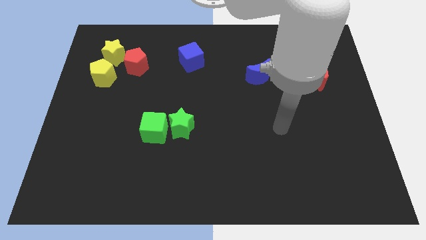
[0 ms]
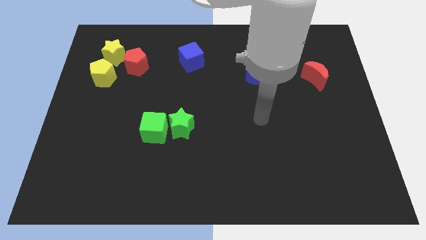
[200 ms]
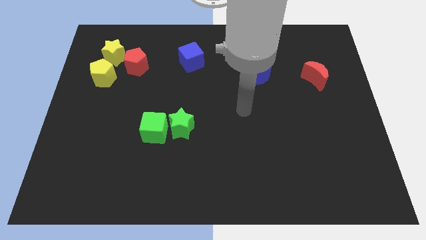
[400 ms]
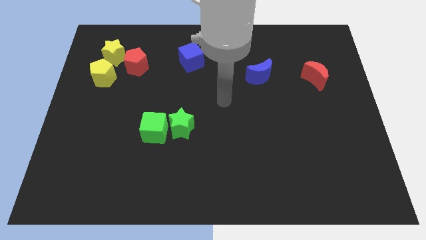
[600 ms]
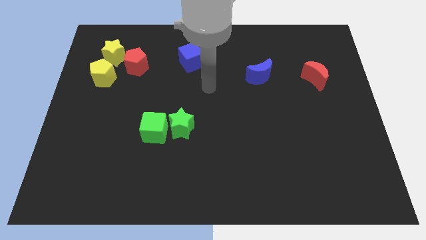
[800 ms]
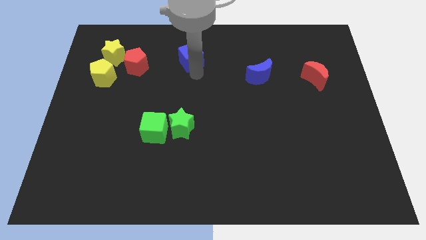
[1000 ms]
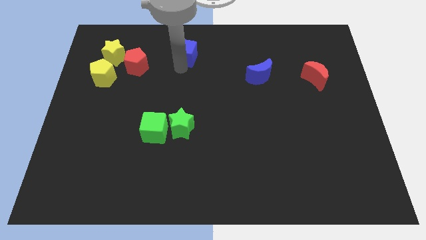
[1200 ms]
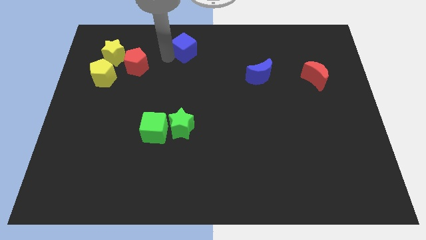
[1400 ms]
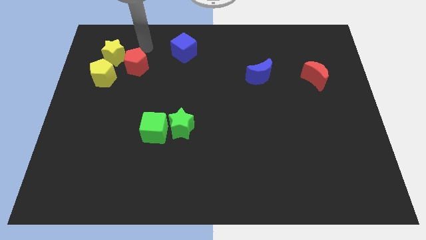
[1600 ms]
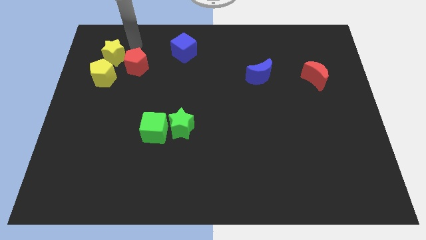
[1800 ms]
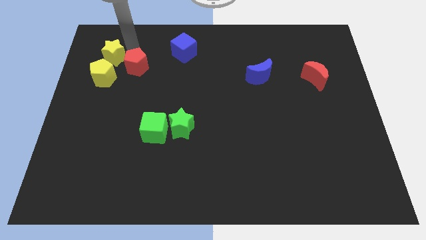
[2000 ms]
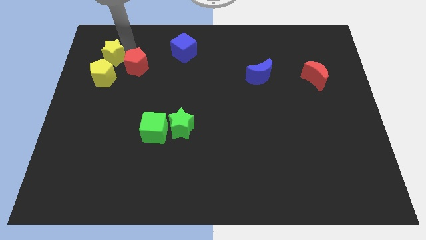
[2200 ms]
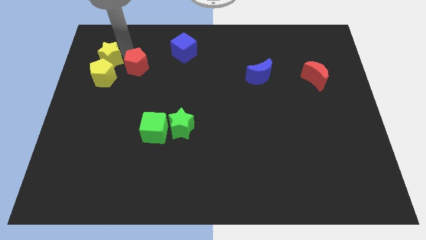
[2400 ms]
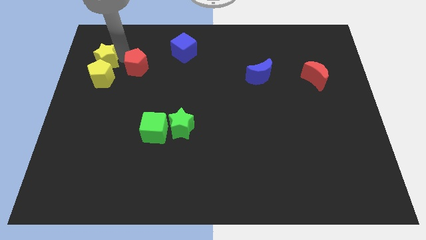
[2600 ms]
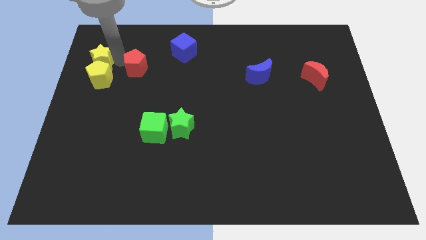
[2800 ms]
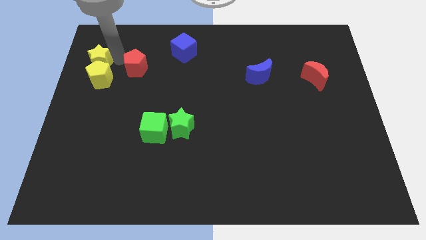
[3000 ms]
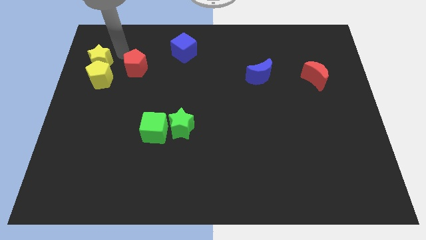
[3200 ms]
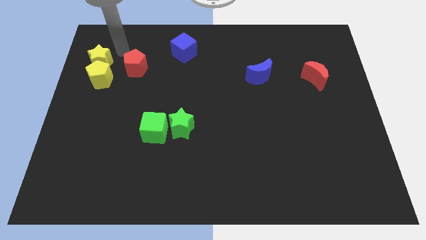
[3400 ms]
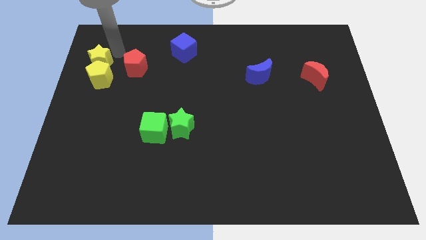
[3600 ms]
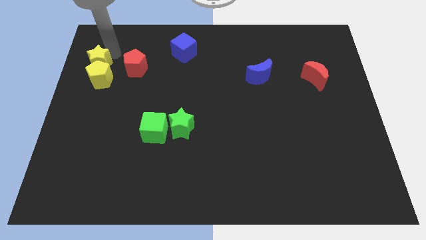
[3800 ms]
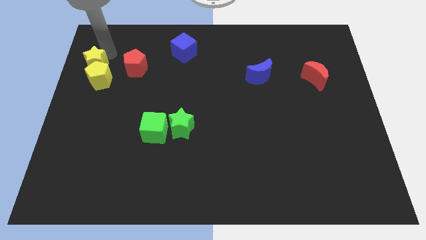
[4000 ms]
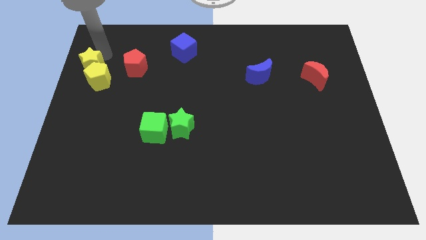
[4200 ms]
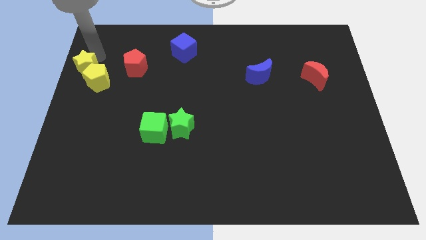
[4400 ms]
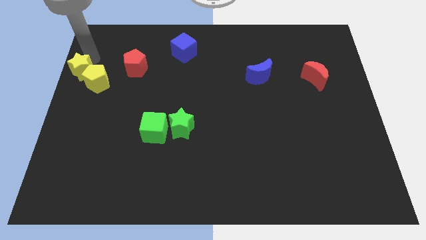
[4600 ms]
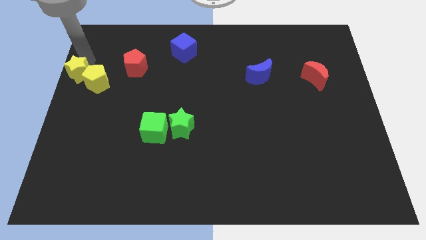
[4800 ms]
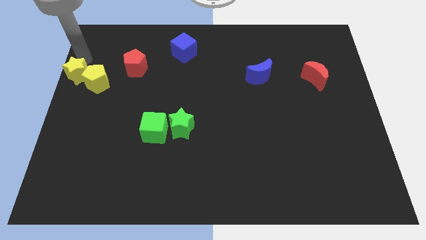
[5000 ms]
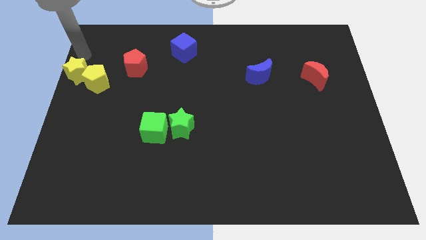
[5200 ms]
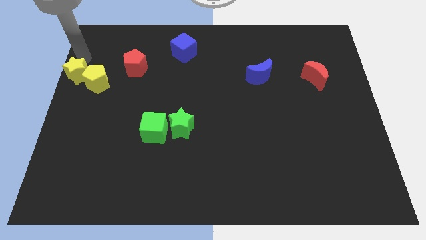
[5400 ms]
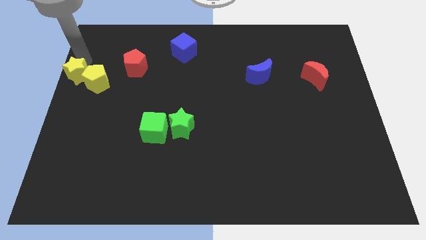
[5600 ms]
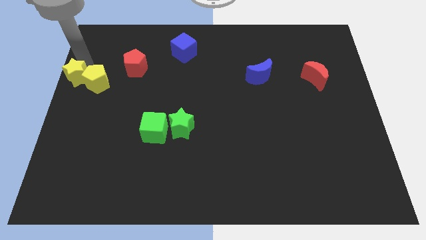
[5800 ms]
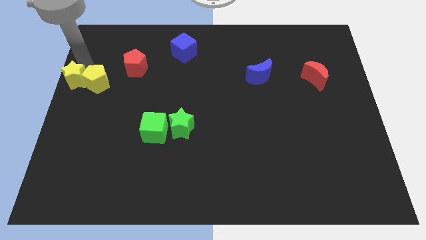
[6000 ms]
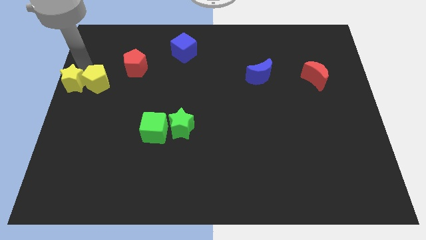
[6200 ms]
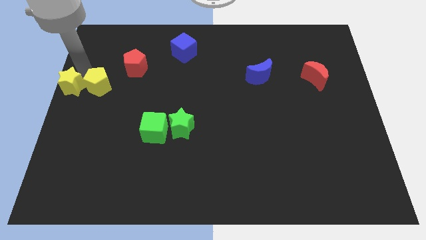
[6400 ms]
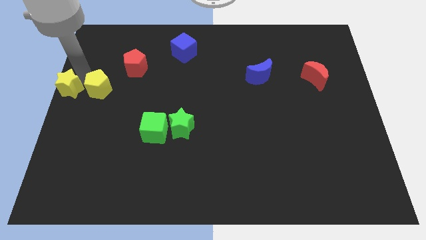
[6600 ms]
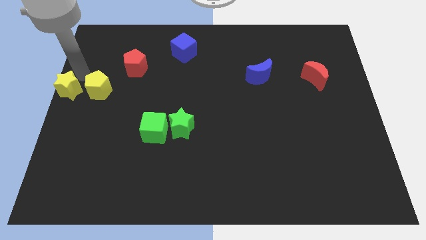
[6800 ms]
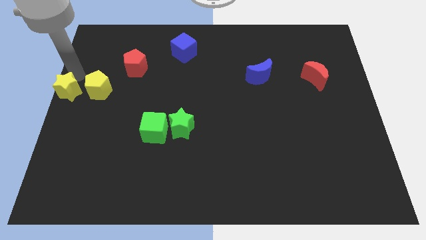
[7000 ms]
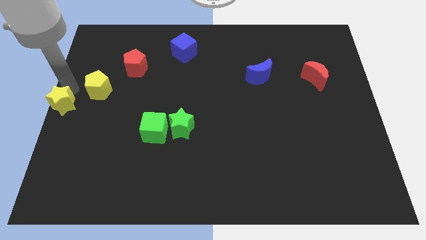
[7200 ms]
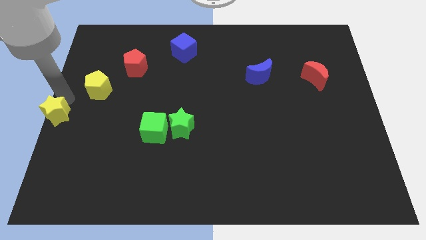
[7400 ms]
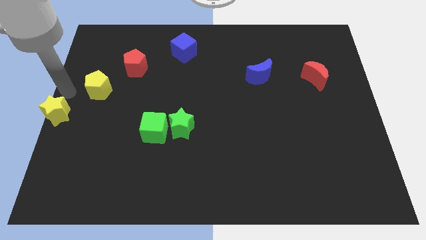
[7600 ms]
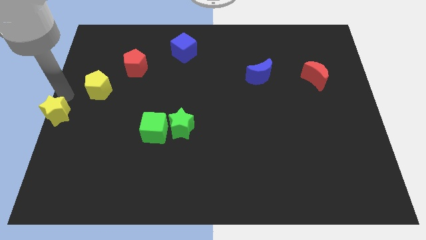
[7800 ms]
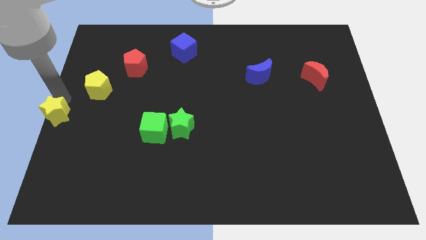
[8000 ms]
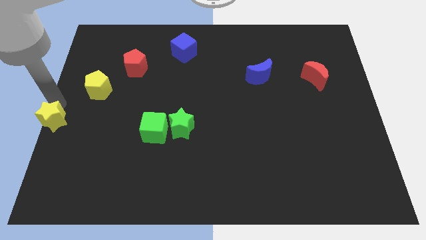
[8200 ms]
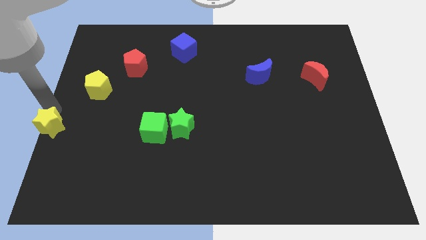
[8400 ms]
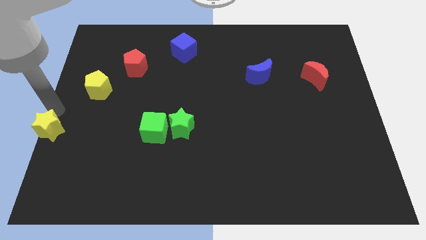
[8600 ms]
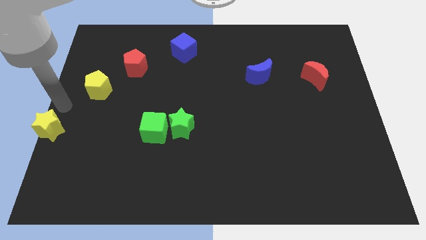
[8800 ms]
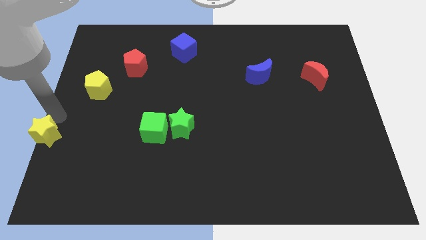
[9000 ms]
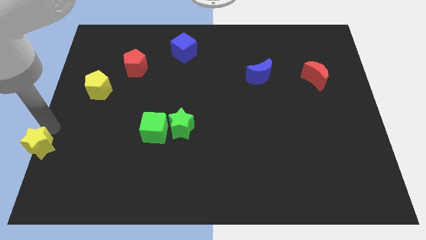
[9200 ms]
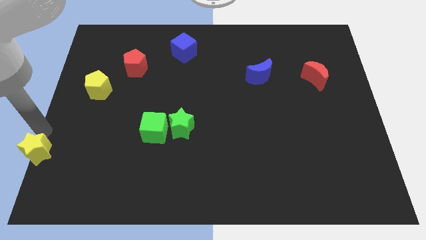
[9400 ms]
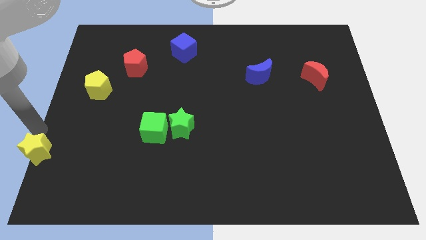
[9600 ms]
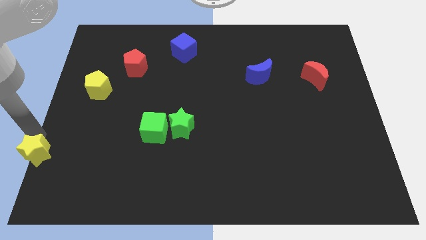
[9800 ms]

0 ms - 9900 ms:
put the yellow star to the bottom left corner

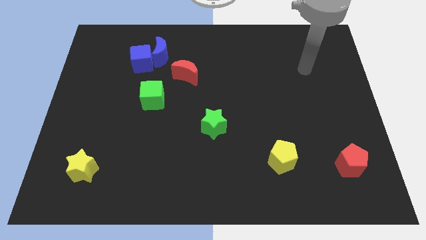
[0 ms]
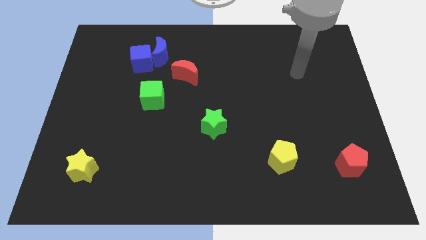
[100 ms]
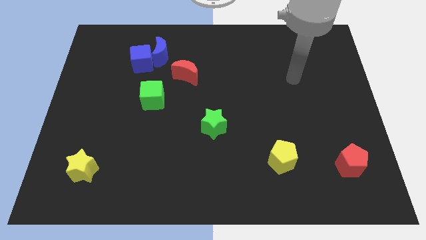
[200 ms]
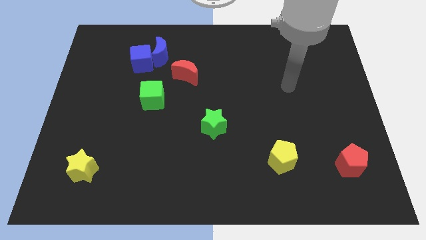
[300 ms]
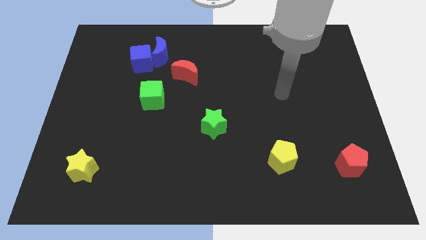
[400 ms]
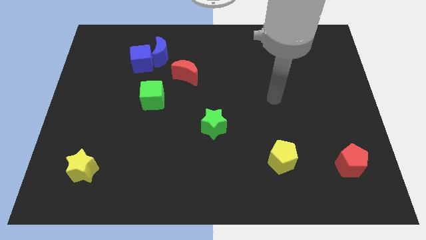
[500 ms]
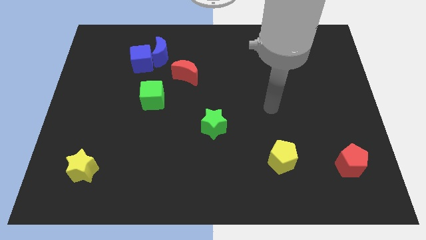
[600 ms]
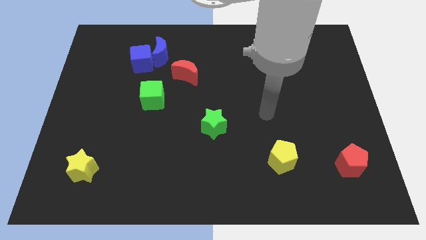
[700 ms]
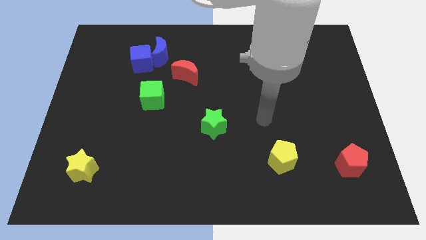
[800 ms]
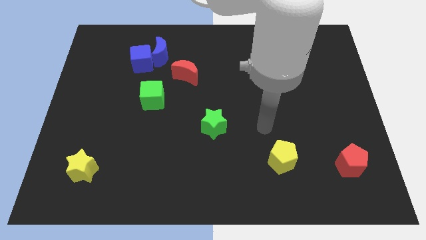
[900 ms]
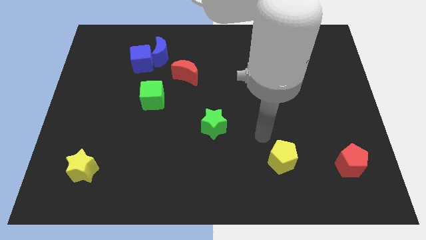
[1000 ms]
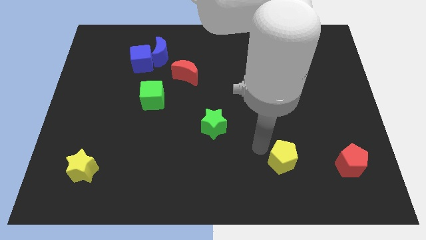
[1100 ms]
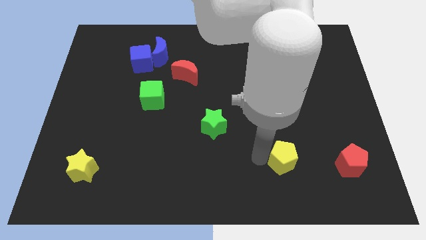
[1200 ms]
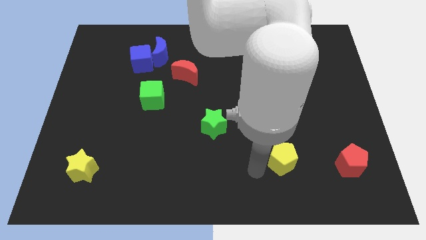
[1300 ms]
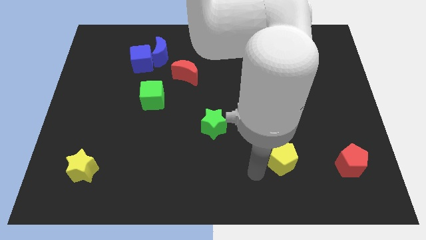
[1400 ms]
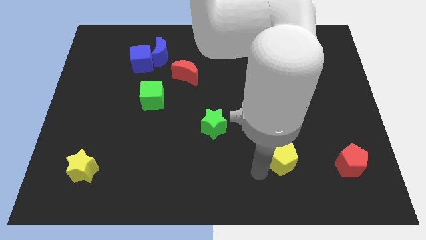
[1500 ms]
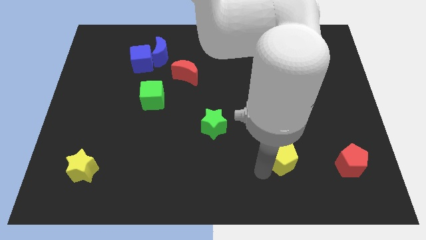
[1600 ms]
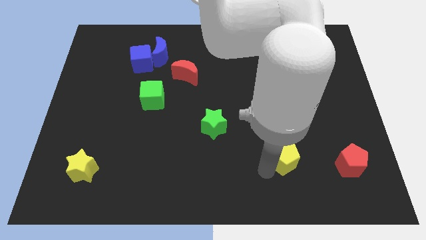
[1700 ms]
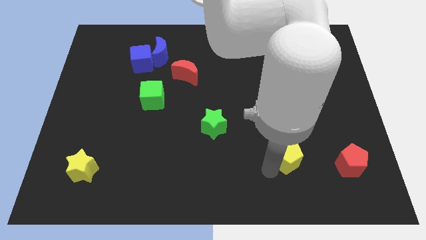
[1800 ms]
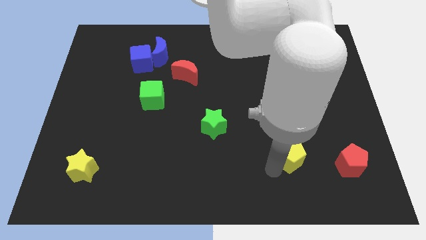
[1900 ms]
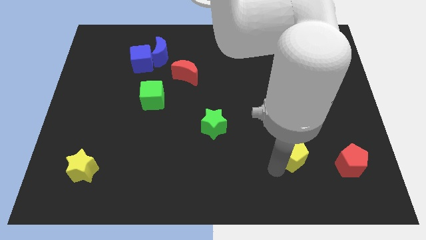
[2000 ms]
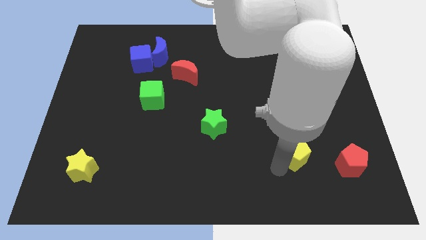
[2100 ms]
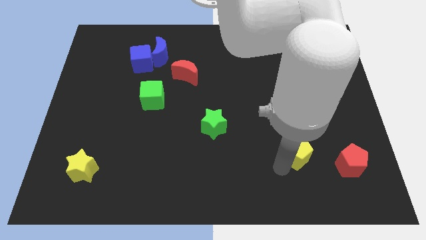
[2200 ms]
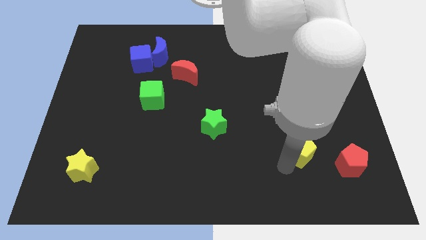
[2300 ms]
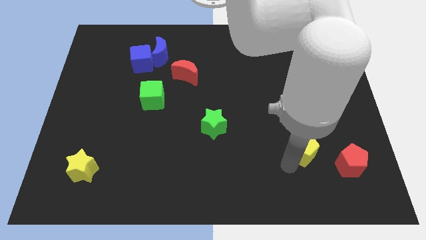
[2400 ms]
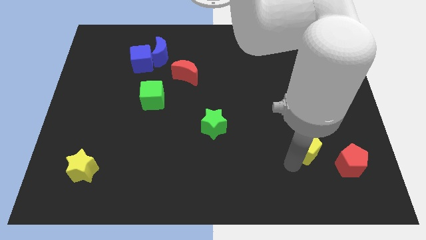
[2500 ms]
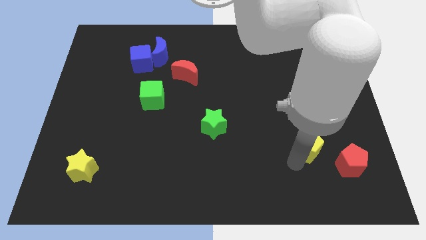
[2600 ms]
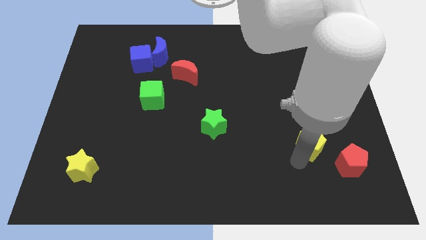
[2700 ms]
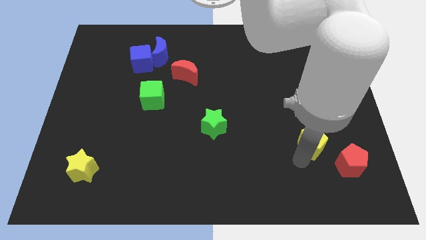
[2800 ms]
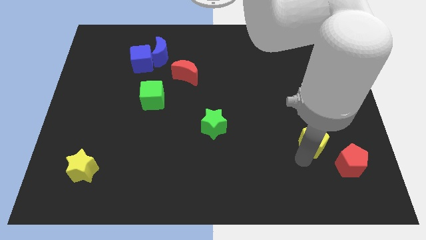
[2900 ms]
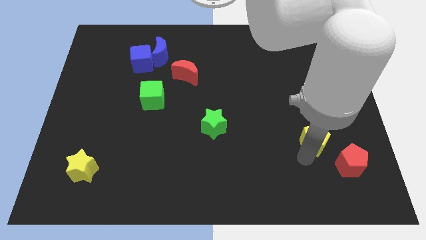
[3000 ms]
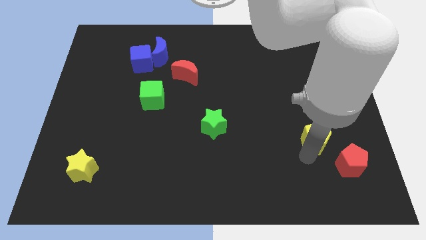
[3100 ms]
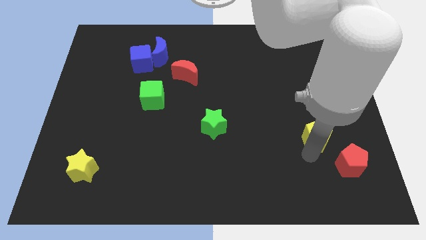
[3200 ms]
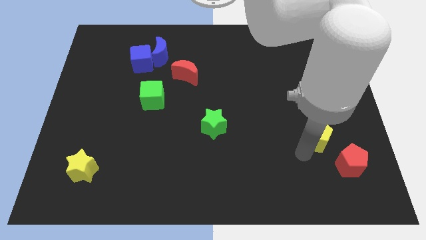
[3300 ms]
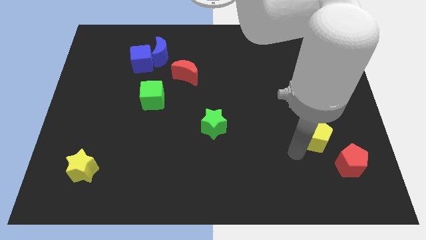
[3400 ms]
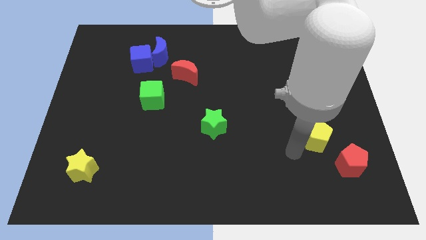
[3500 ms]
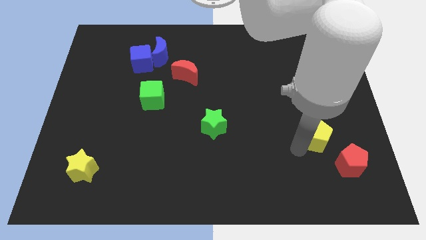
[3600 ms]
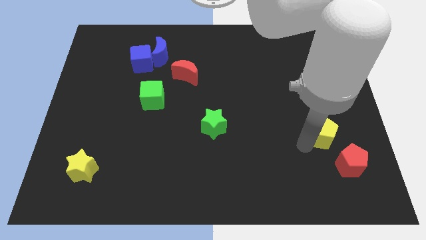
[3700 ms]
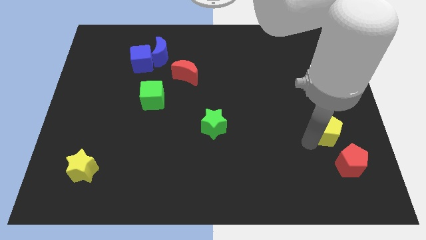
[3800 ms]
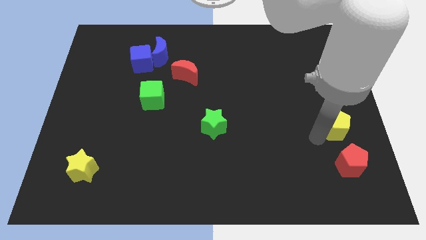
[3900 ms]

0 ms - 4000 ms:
push the yellow pentagon to the right side
